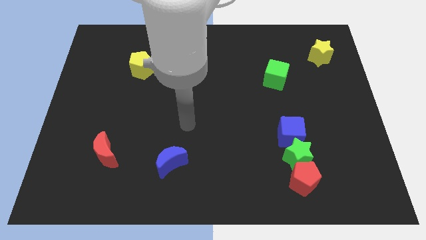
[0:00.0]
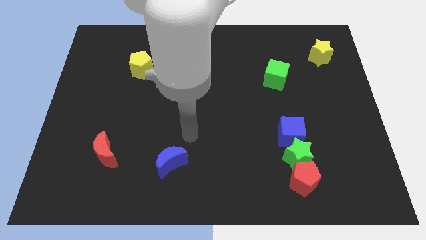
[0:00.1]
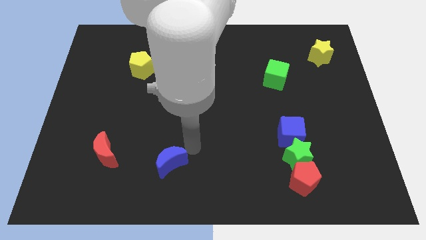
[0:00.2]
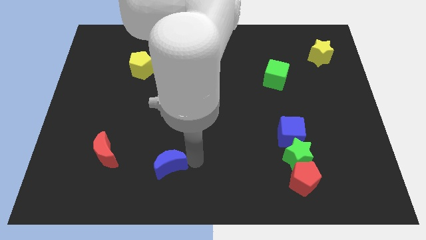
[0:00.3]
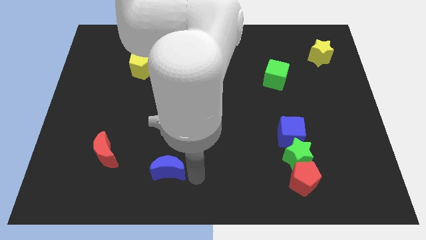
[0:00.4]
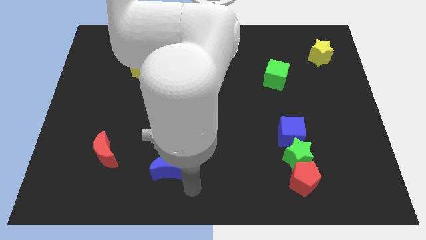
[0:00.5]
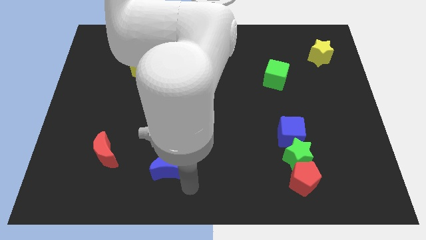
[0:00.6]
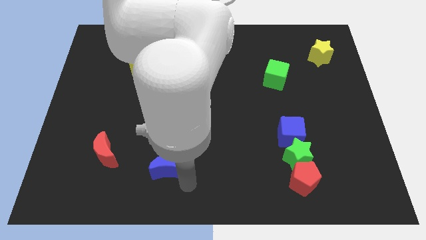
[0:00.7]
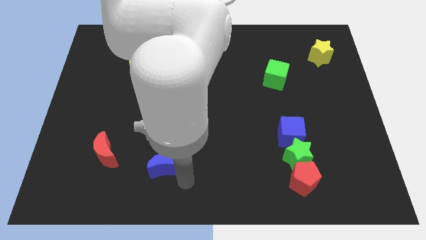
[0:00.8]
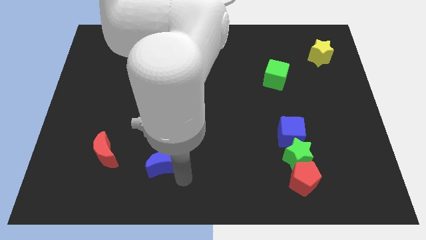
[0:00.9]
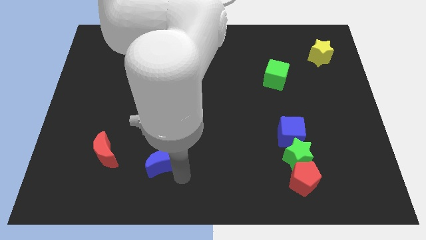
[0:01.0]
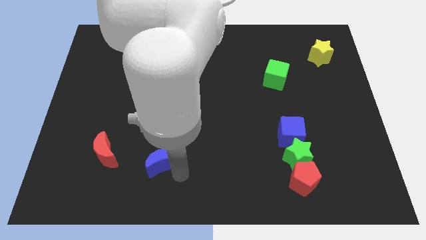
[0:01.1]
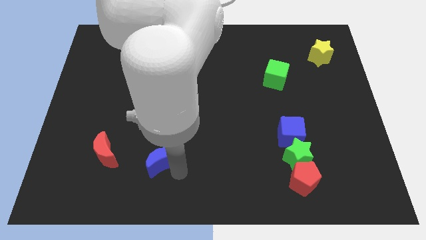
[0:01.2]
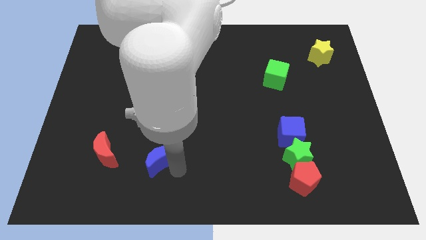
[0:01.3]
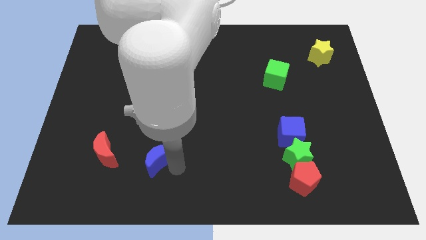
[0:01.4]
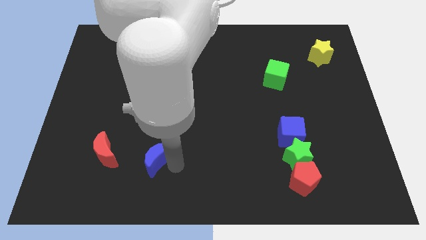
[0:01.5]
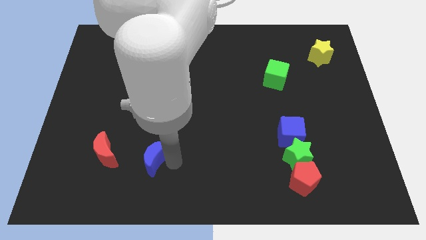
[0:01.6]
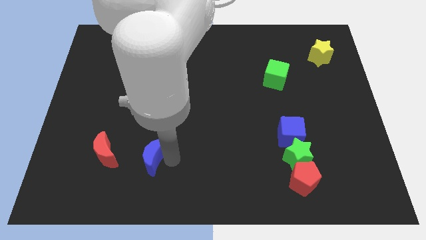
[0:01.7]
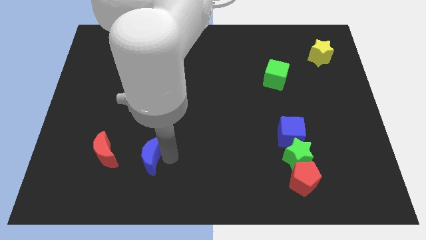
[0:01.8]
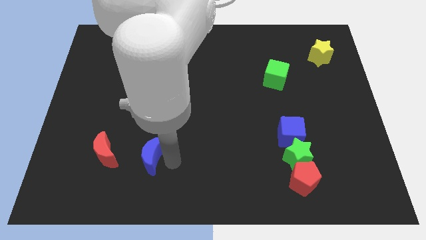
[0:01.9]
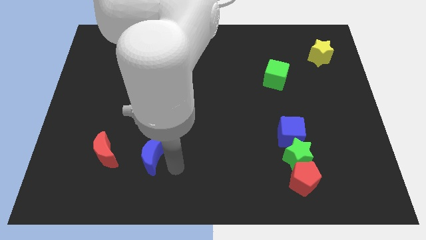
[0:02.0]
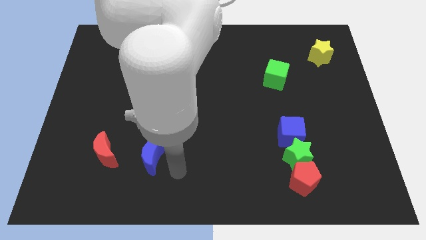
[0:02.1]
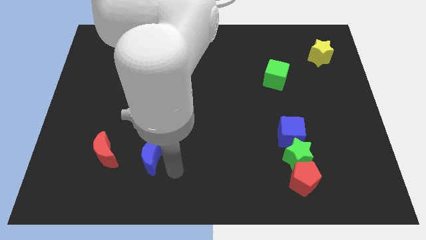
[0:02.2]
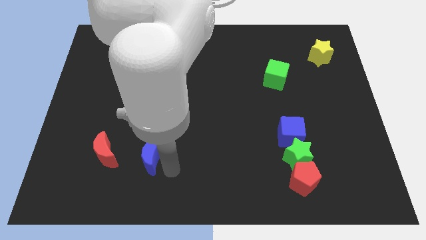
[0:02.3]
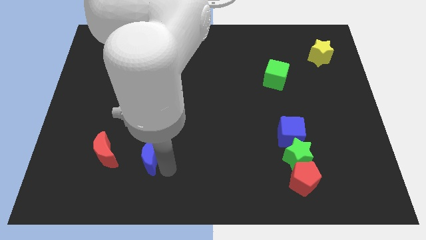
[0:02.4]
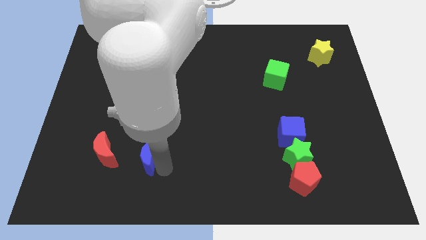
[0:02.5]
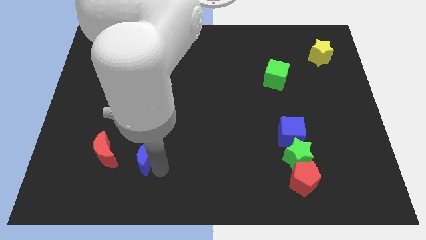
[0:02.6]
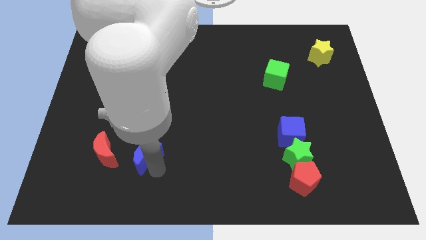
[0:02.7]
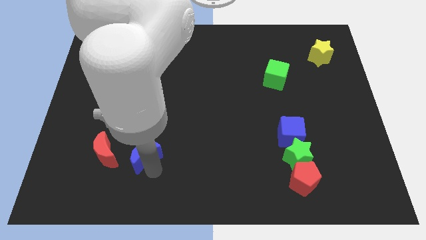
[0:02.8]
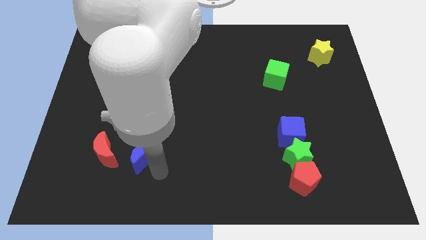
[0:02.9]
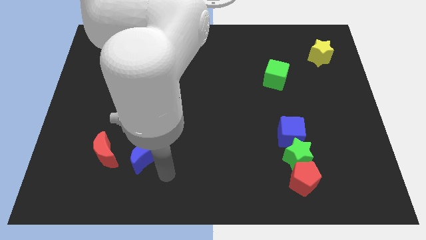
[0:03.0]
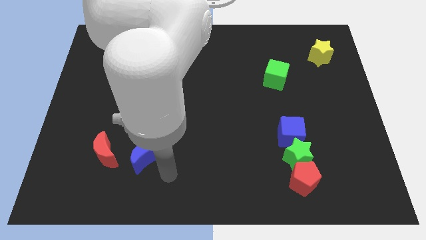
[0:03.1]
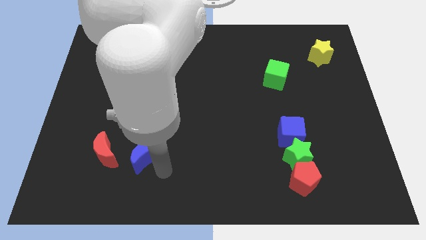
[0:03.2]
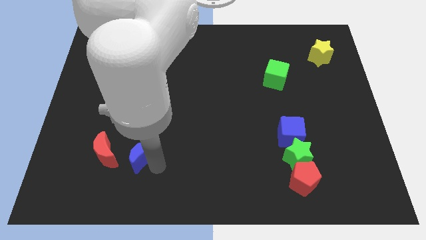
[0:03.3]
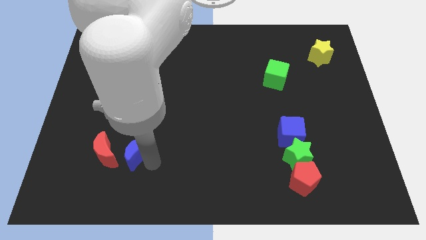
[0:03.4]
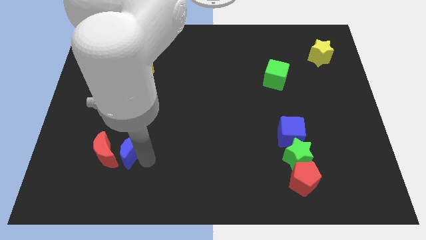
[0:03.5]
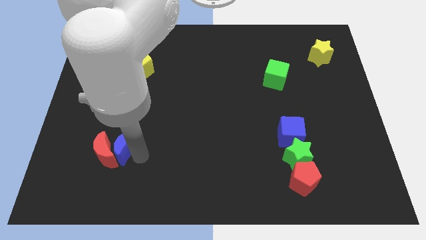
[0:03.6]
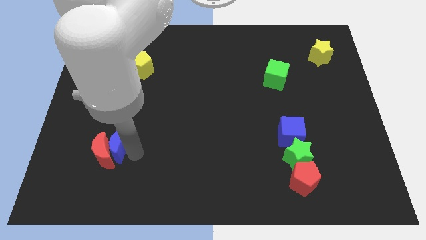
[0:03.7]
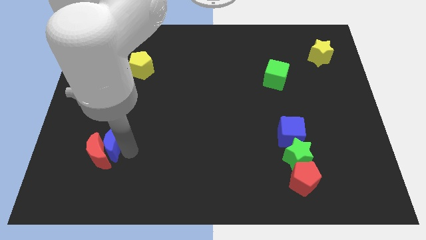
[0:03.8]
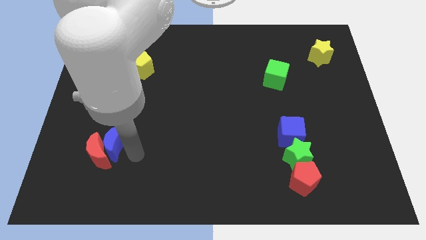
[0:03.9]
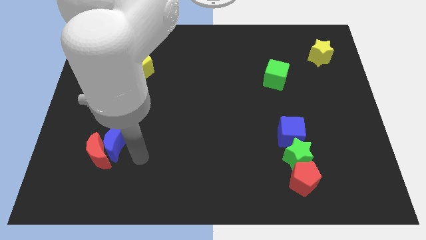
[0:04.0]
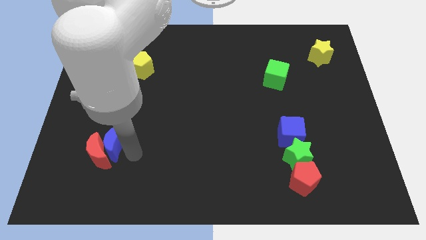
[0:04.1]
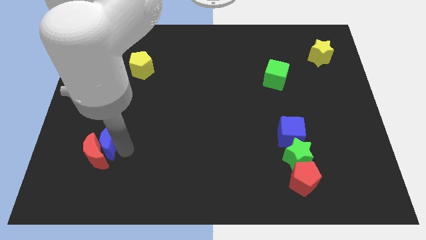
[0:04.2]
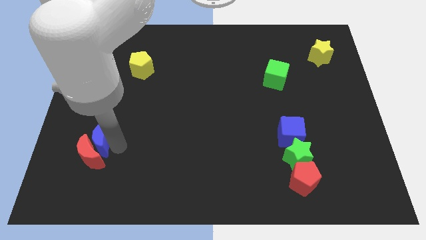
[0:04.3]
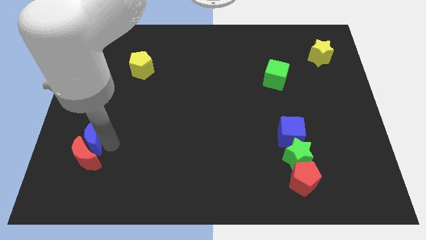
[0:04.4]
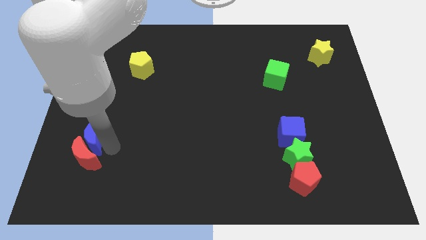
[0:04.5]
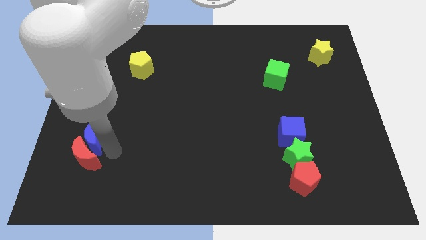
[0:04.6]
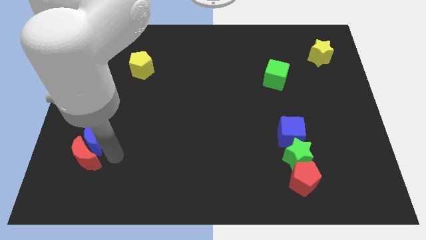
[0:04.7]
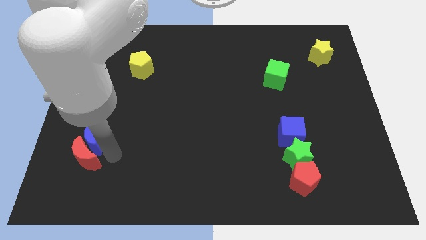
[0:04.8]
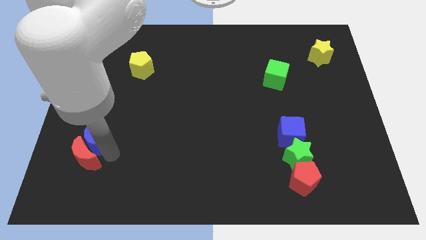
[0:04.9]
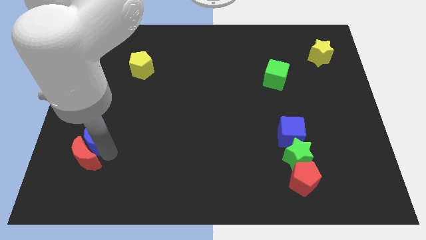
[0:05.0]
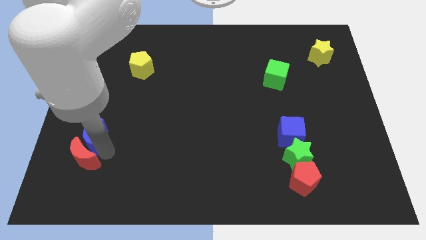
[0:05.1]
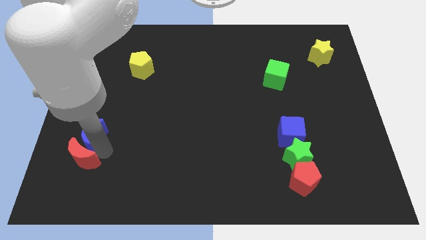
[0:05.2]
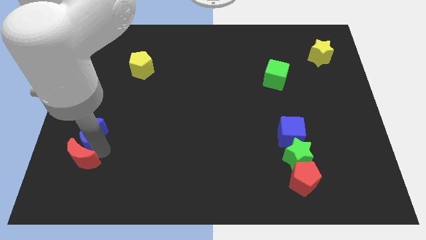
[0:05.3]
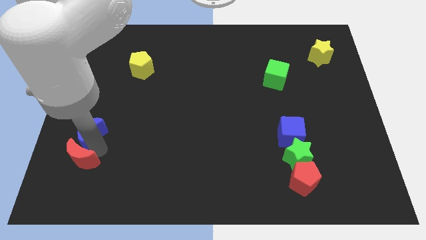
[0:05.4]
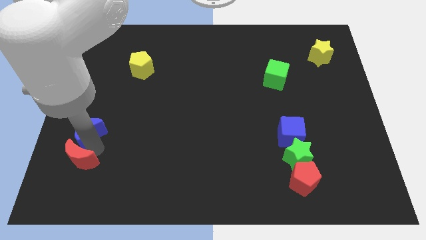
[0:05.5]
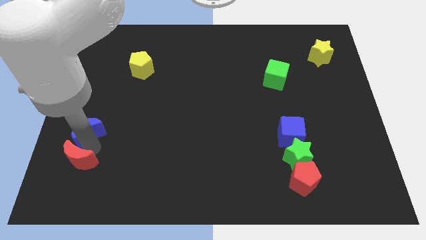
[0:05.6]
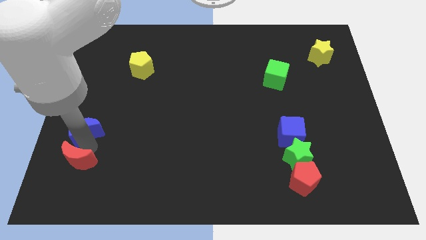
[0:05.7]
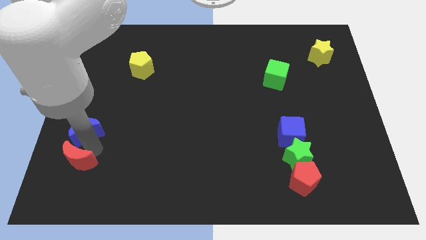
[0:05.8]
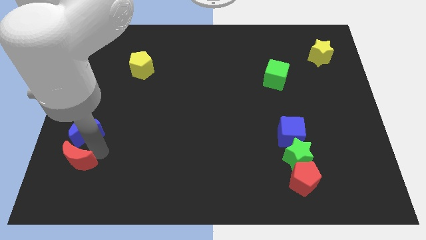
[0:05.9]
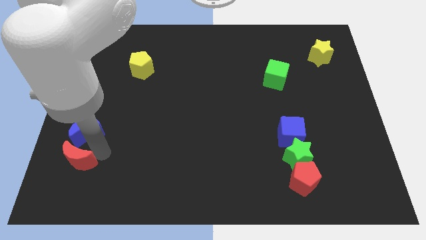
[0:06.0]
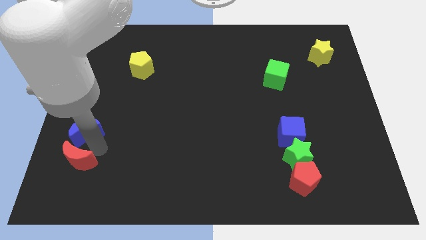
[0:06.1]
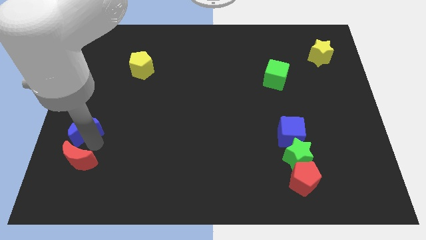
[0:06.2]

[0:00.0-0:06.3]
slide the blue moon to the left side
